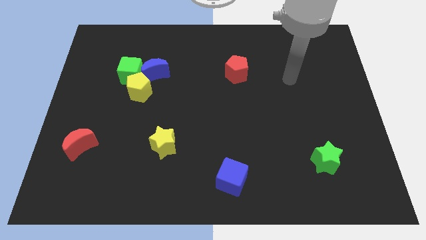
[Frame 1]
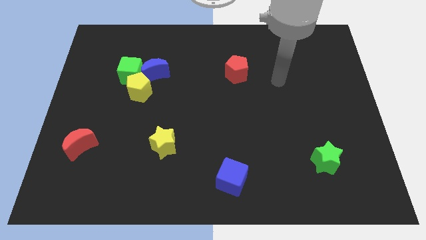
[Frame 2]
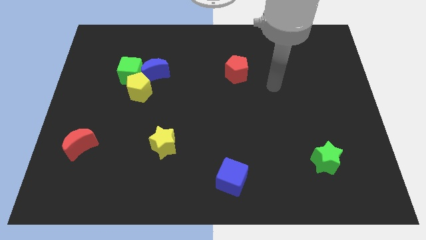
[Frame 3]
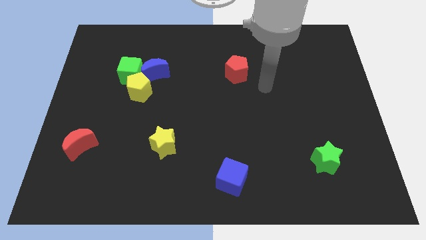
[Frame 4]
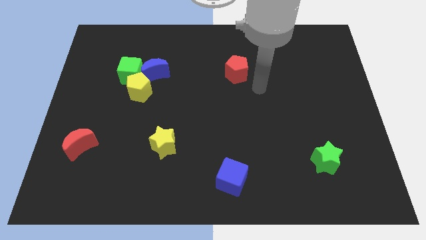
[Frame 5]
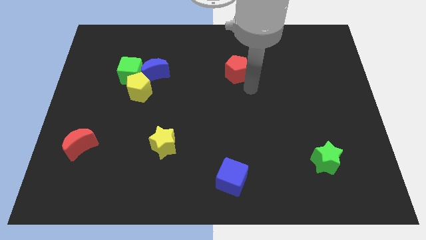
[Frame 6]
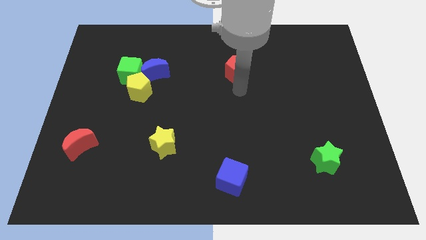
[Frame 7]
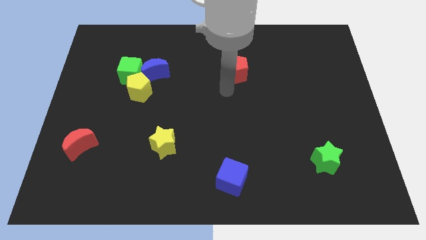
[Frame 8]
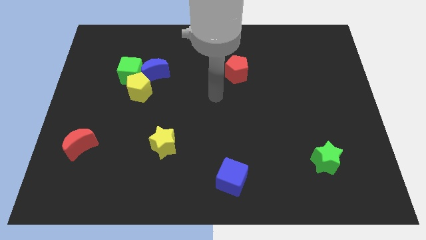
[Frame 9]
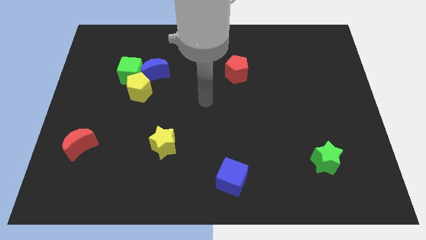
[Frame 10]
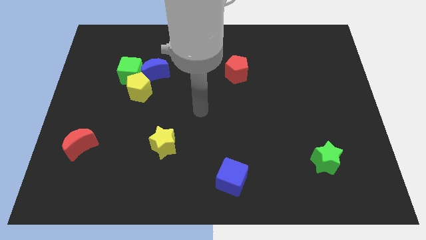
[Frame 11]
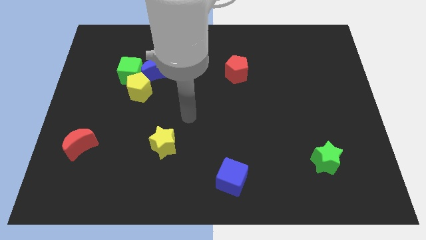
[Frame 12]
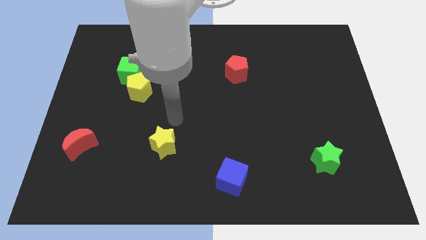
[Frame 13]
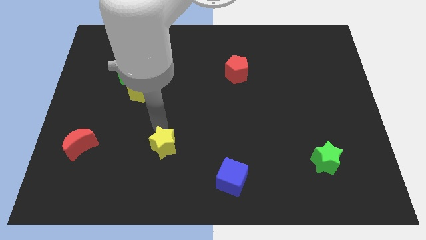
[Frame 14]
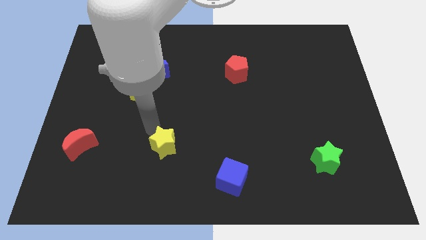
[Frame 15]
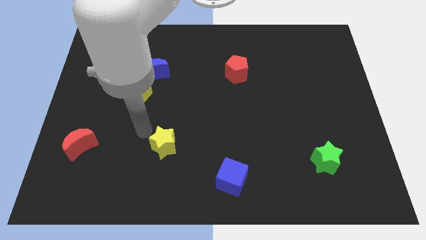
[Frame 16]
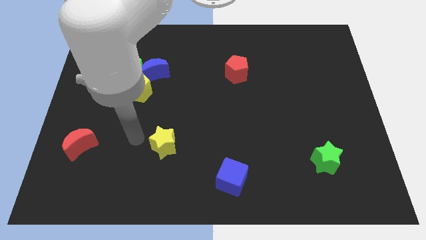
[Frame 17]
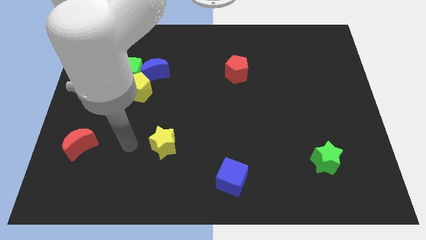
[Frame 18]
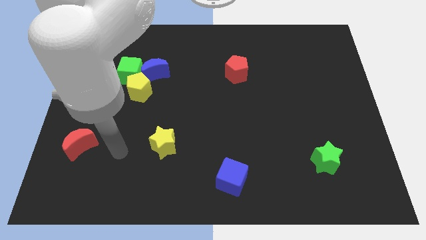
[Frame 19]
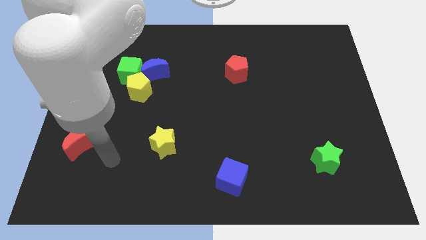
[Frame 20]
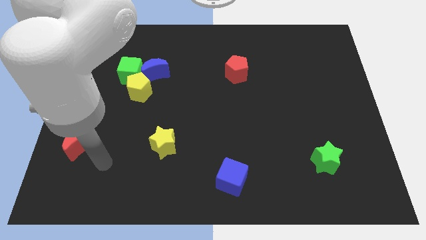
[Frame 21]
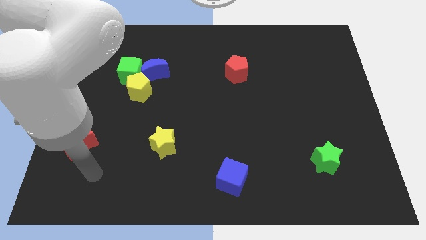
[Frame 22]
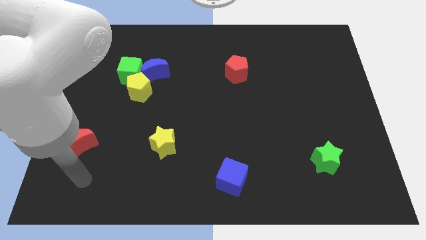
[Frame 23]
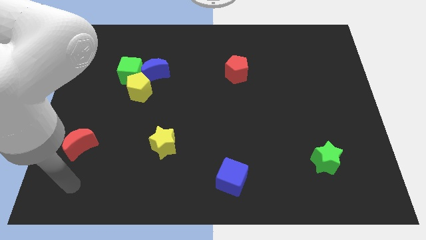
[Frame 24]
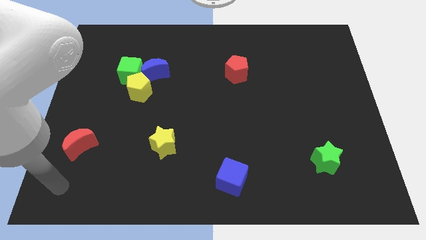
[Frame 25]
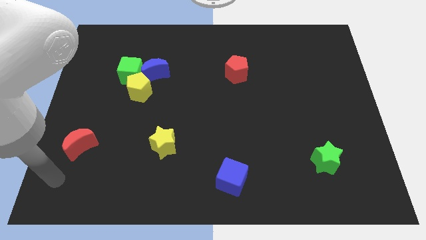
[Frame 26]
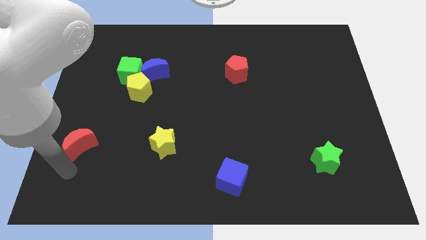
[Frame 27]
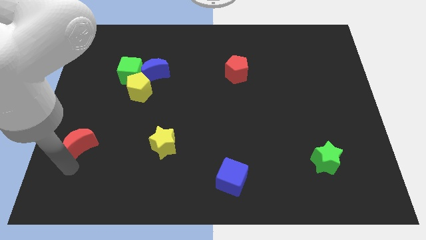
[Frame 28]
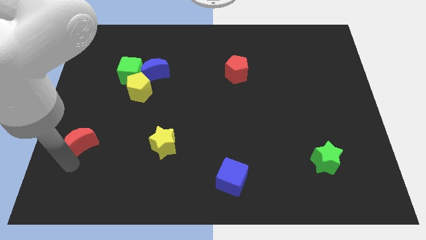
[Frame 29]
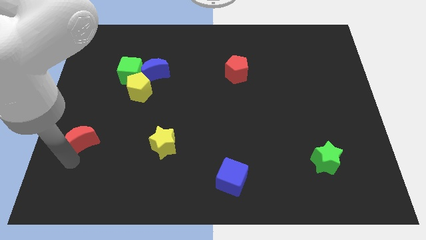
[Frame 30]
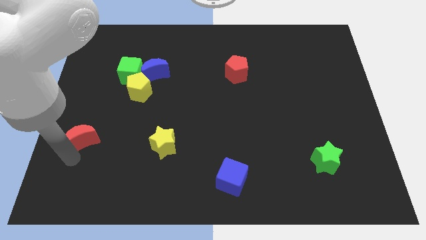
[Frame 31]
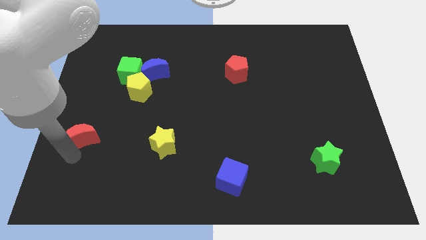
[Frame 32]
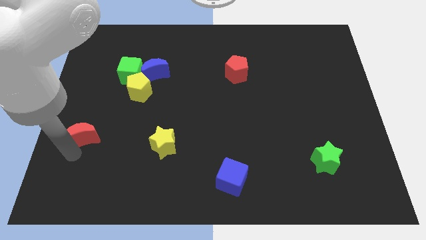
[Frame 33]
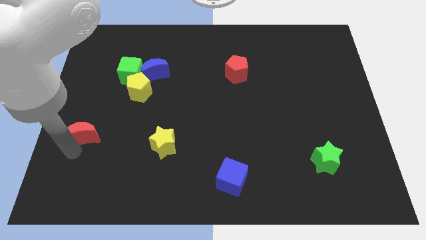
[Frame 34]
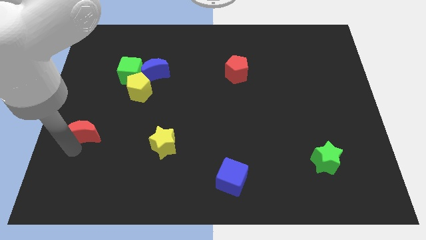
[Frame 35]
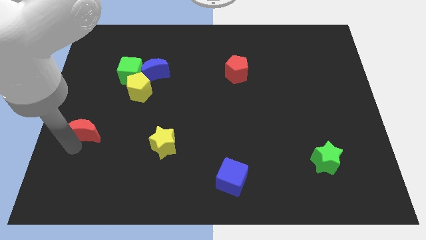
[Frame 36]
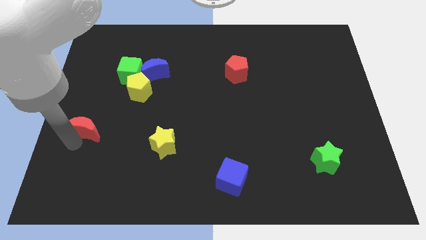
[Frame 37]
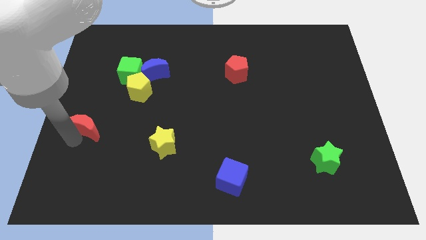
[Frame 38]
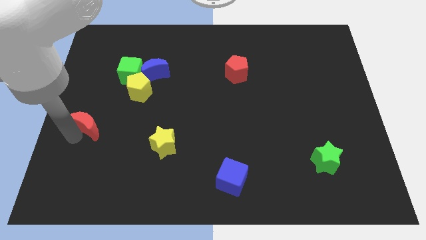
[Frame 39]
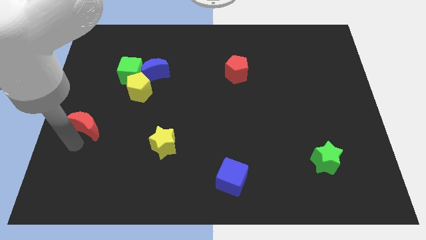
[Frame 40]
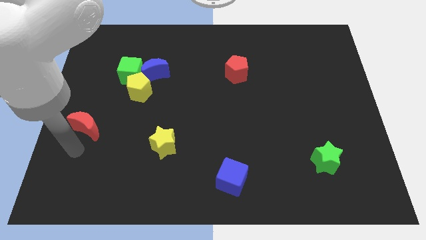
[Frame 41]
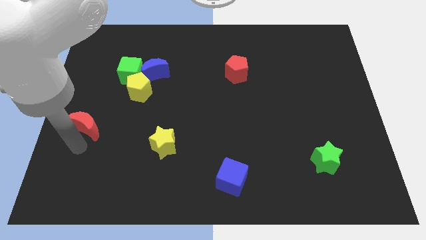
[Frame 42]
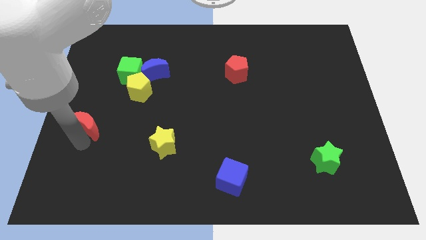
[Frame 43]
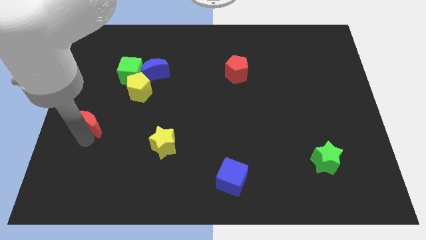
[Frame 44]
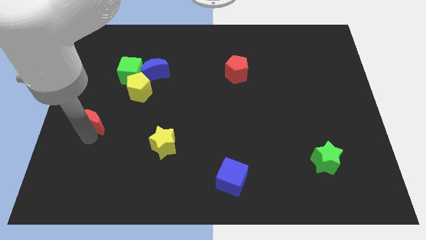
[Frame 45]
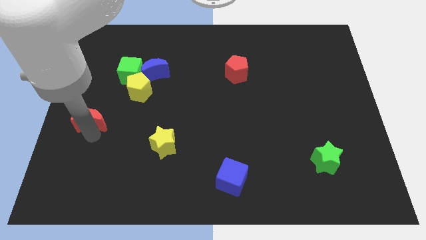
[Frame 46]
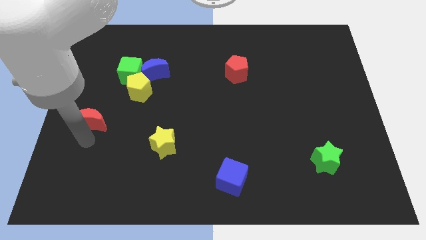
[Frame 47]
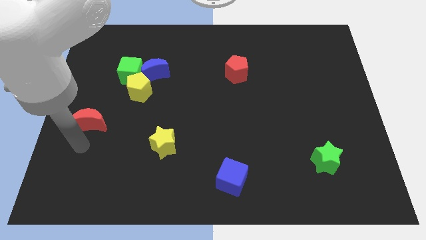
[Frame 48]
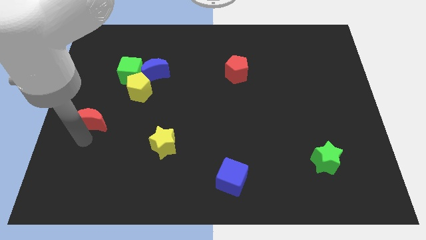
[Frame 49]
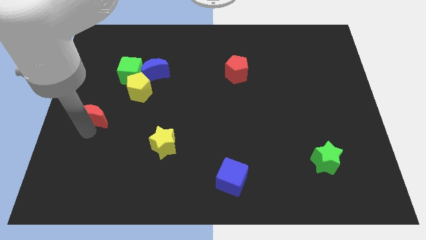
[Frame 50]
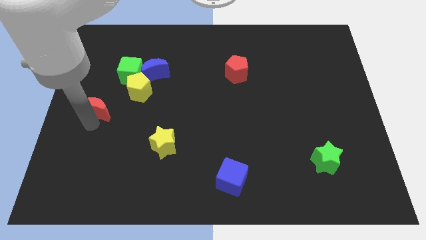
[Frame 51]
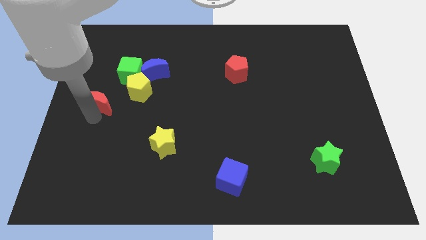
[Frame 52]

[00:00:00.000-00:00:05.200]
put the red moon to the bottom left of the green cube

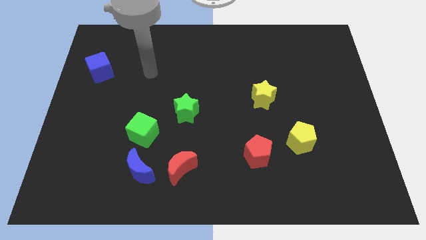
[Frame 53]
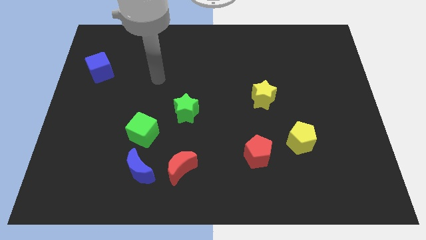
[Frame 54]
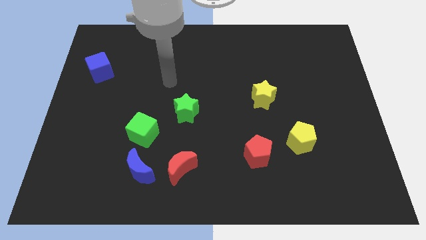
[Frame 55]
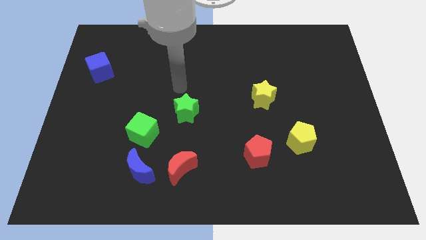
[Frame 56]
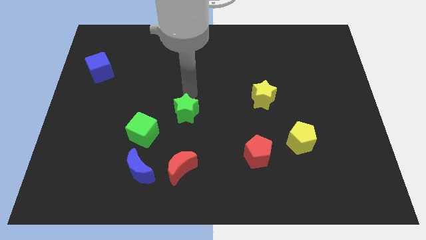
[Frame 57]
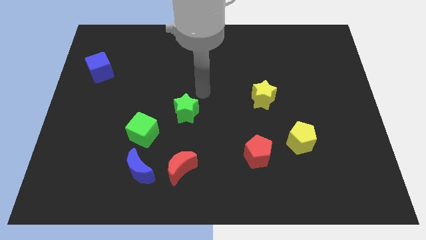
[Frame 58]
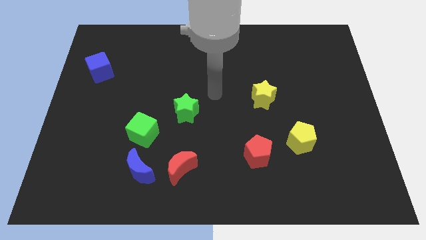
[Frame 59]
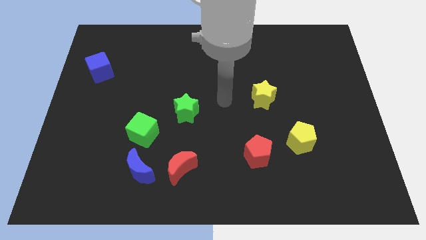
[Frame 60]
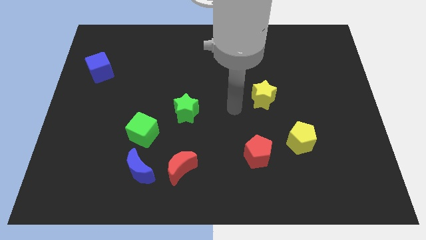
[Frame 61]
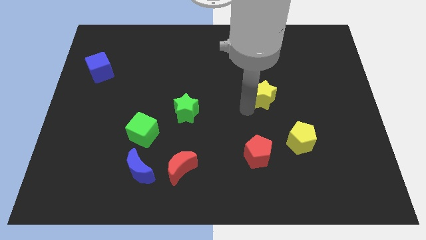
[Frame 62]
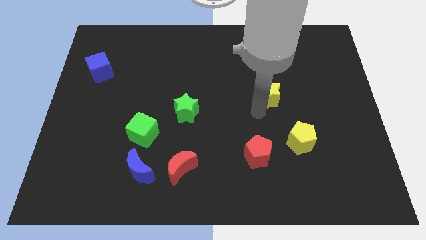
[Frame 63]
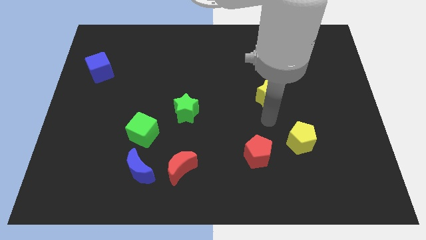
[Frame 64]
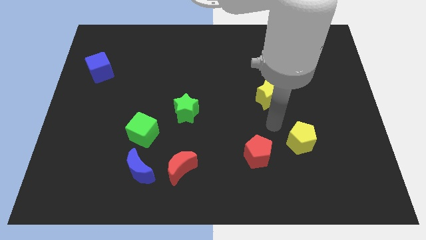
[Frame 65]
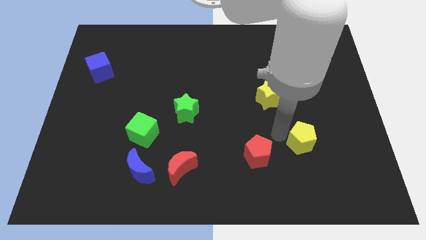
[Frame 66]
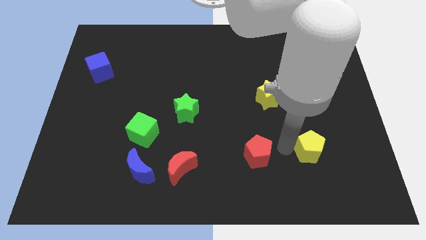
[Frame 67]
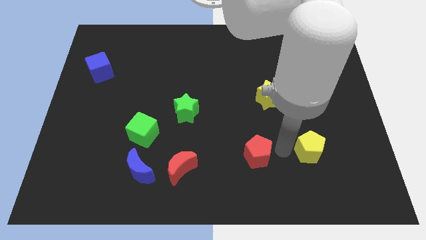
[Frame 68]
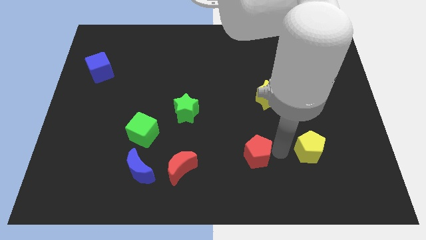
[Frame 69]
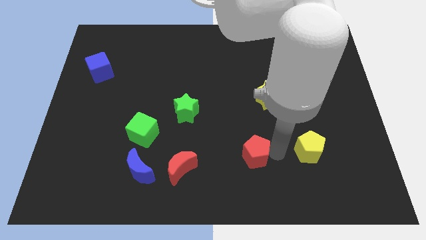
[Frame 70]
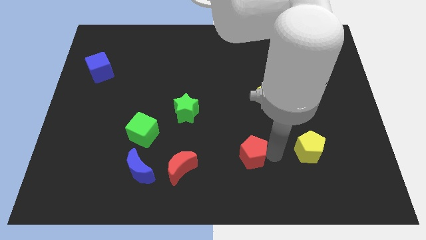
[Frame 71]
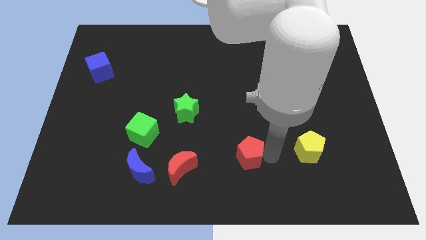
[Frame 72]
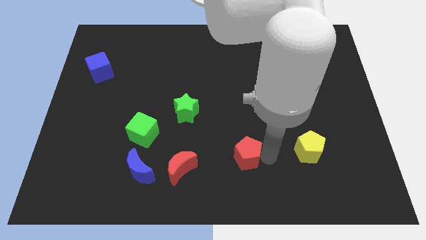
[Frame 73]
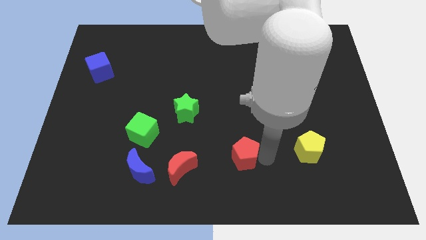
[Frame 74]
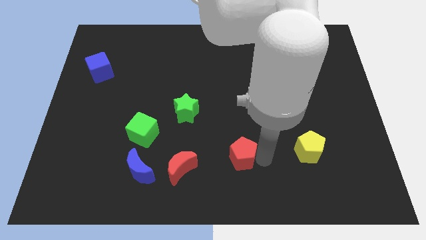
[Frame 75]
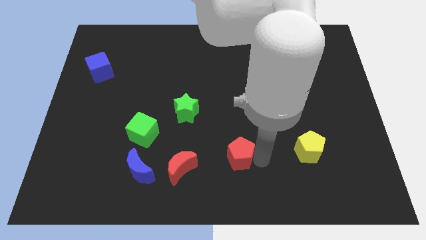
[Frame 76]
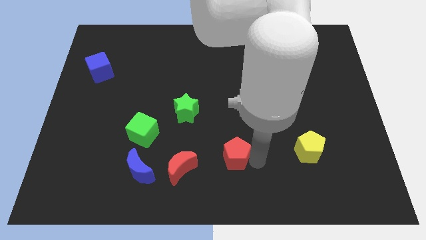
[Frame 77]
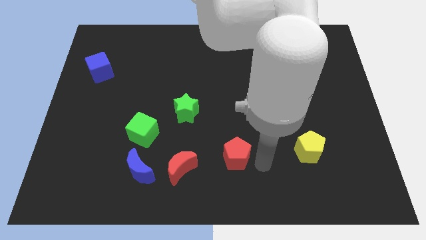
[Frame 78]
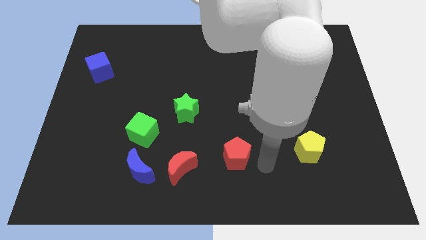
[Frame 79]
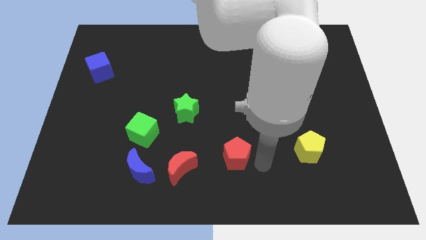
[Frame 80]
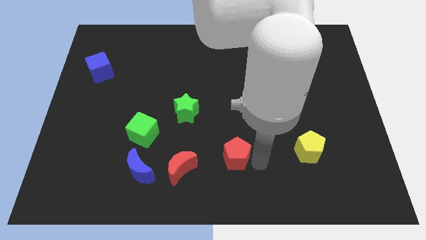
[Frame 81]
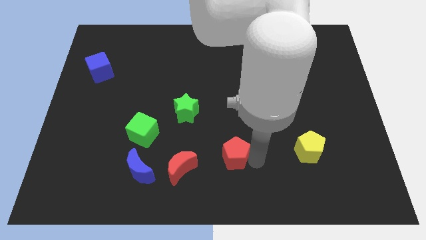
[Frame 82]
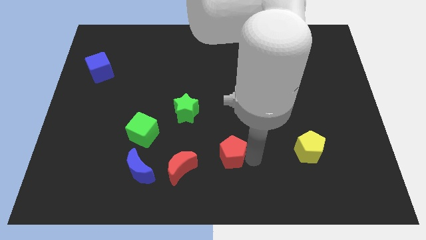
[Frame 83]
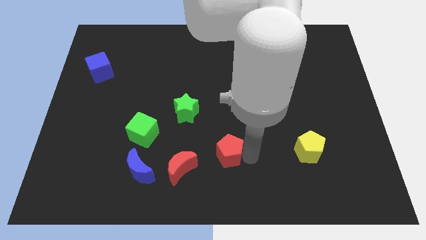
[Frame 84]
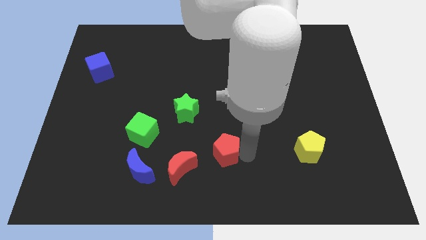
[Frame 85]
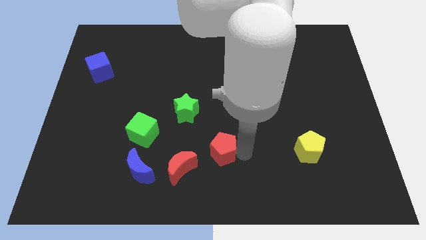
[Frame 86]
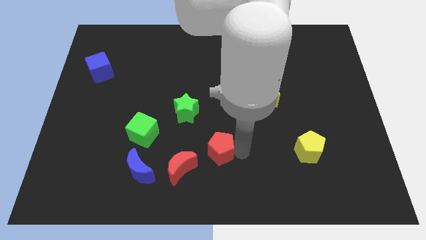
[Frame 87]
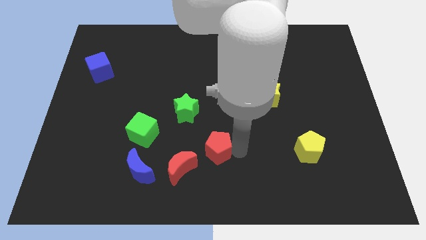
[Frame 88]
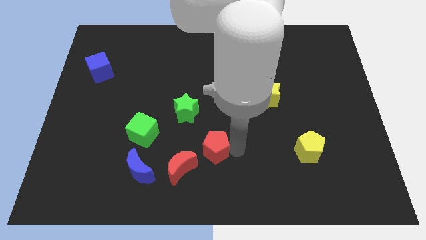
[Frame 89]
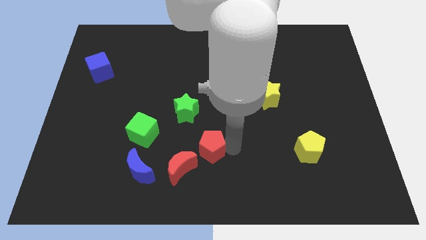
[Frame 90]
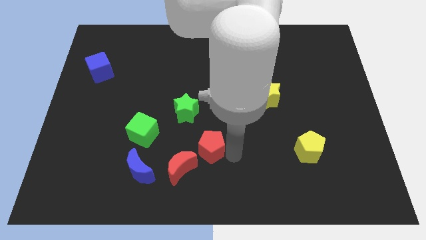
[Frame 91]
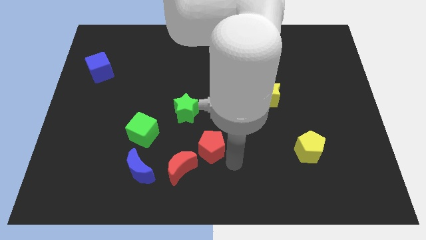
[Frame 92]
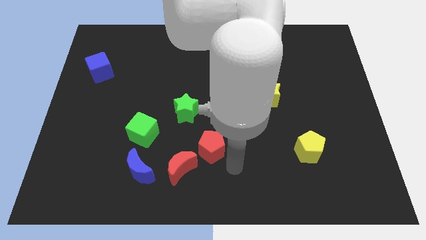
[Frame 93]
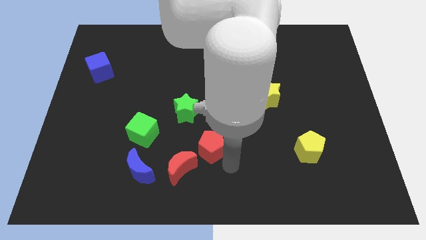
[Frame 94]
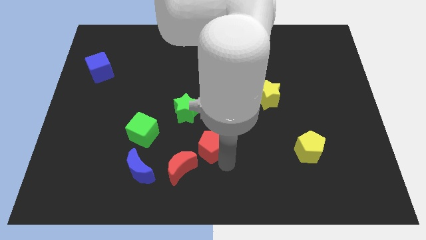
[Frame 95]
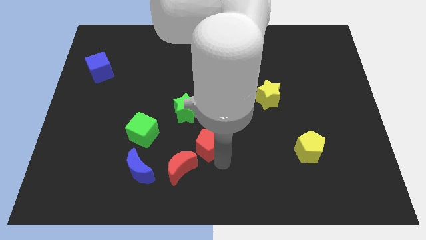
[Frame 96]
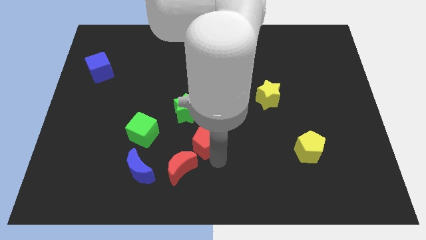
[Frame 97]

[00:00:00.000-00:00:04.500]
move the red pentagon to the top of the red moon
